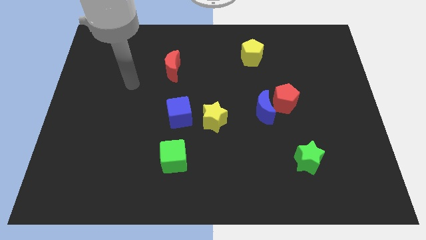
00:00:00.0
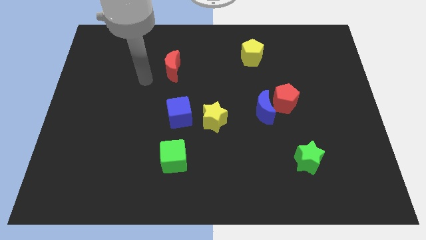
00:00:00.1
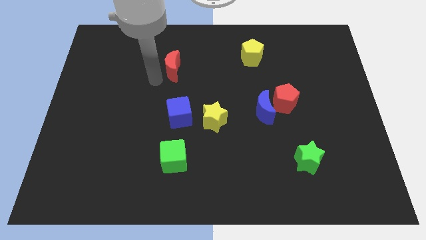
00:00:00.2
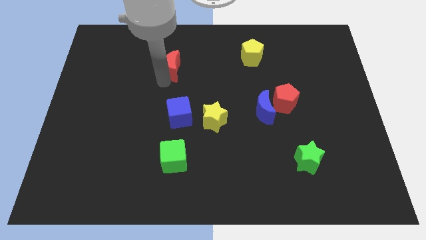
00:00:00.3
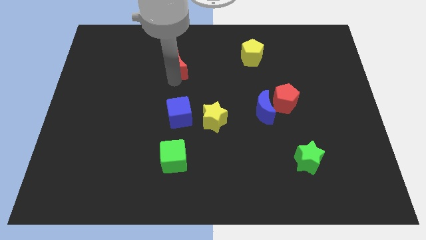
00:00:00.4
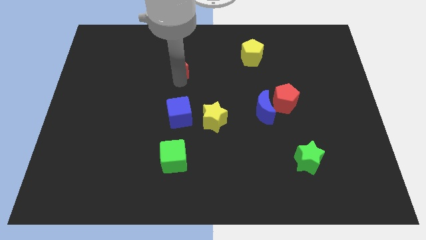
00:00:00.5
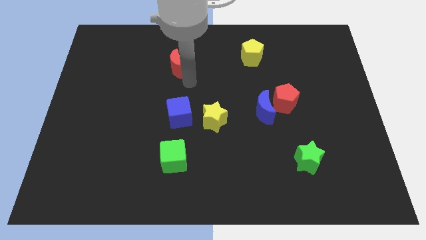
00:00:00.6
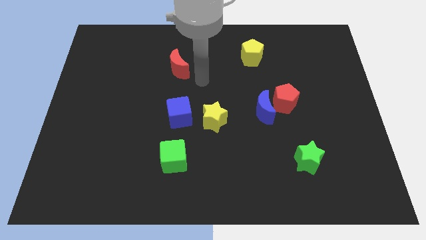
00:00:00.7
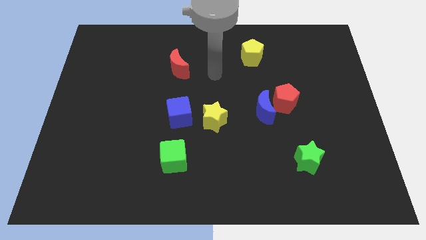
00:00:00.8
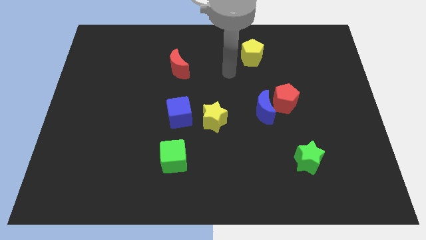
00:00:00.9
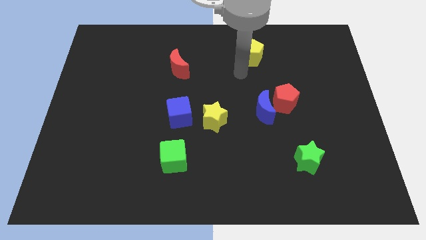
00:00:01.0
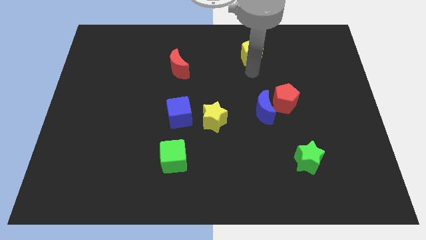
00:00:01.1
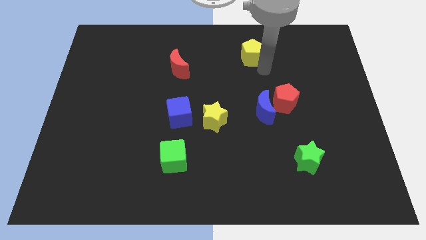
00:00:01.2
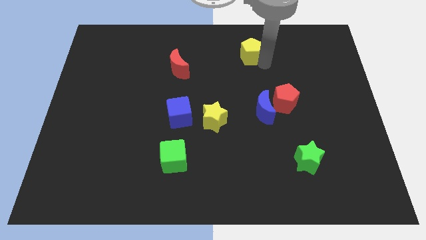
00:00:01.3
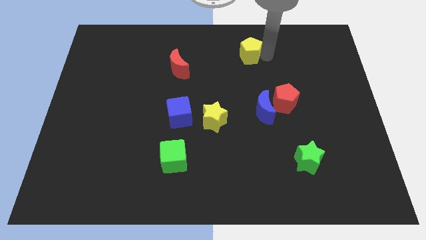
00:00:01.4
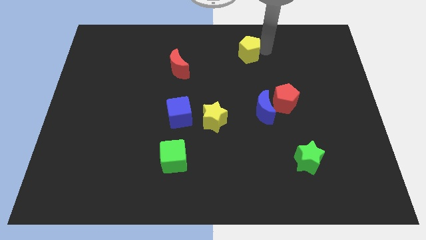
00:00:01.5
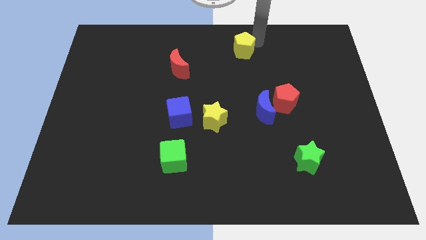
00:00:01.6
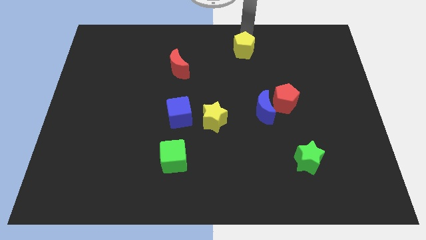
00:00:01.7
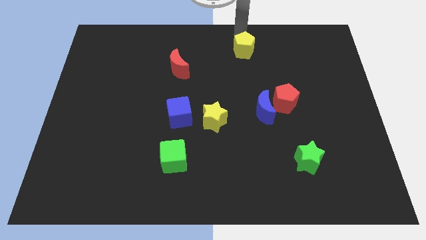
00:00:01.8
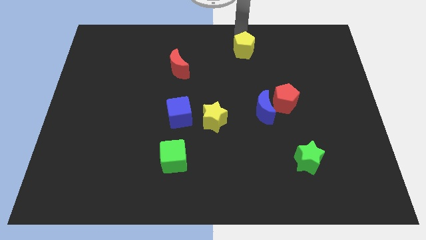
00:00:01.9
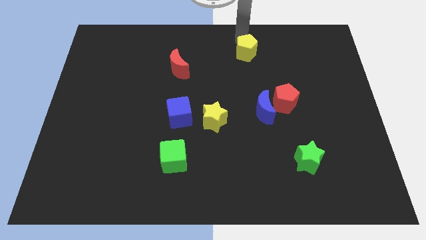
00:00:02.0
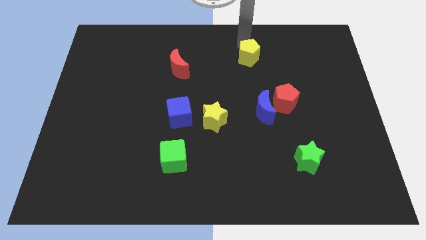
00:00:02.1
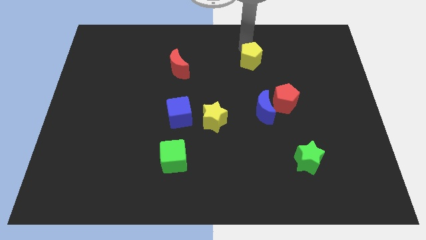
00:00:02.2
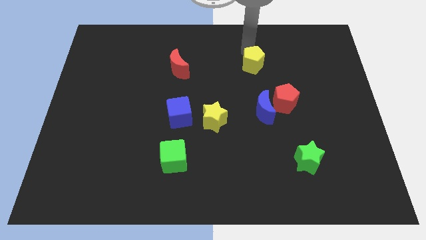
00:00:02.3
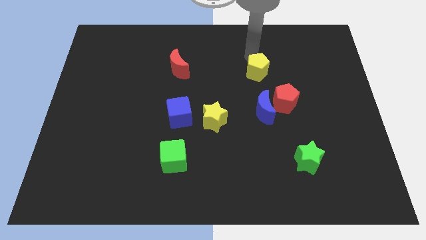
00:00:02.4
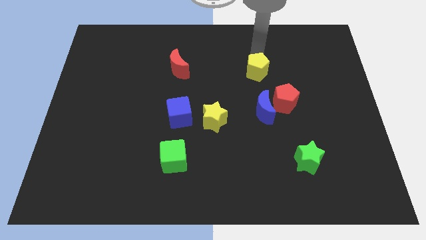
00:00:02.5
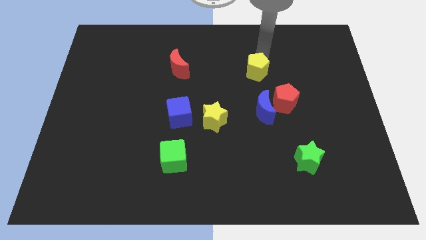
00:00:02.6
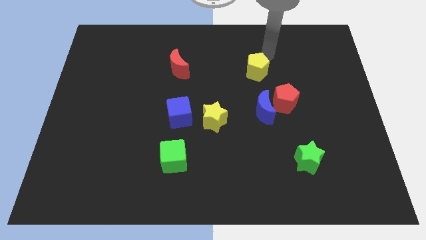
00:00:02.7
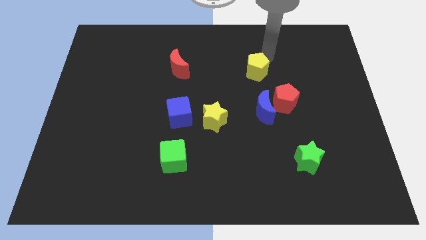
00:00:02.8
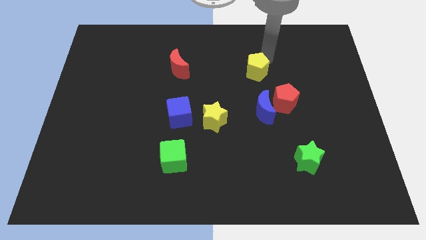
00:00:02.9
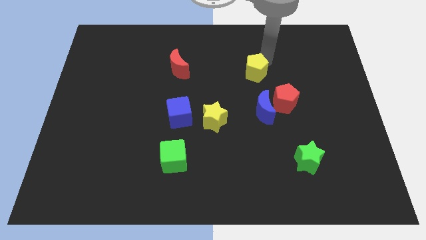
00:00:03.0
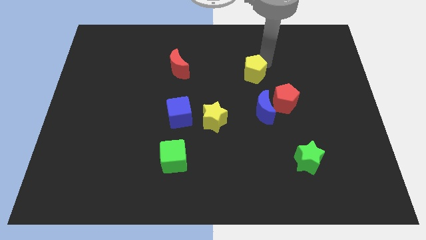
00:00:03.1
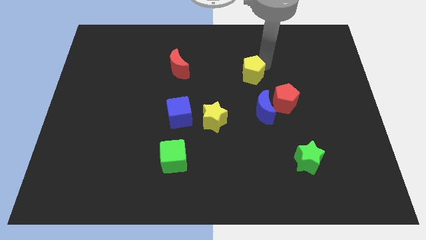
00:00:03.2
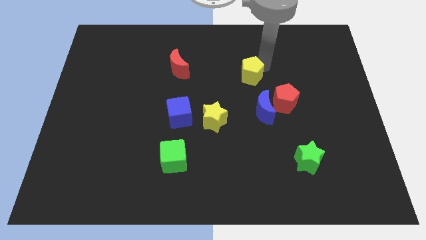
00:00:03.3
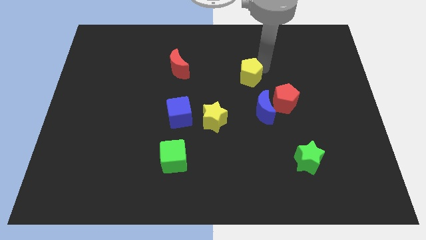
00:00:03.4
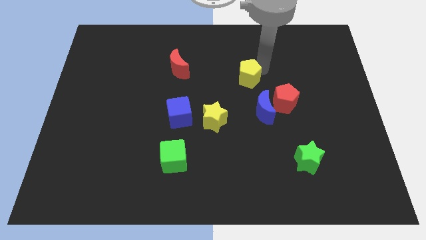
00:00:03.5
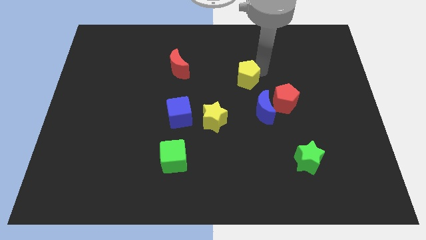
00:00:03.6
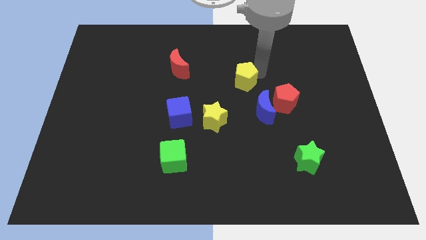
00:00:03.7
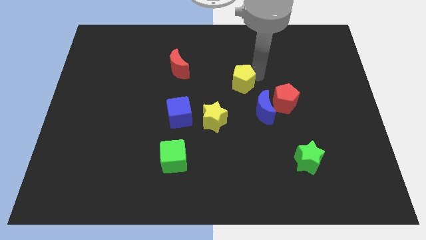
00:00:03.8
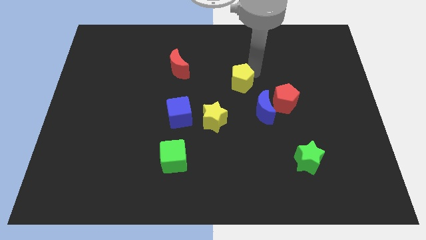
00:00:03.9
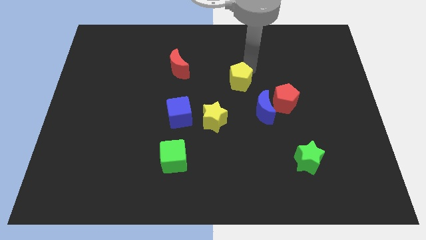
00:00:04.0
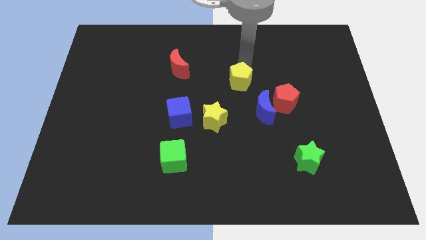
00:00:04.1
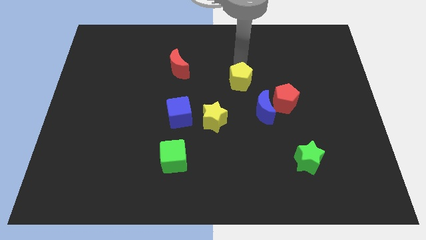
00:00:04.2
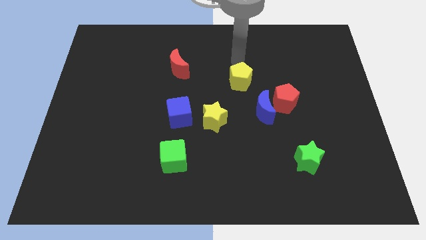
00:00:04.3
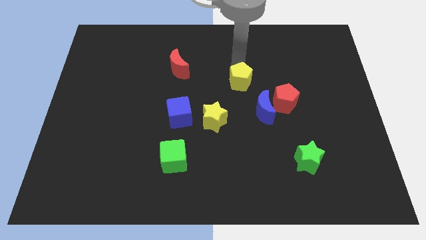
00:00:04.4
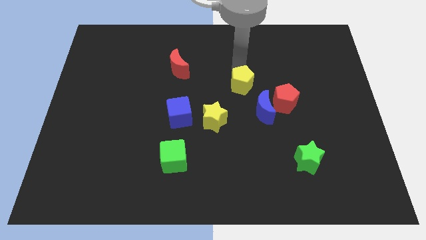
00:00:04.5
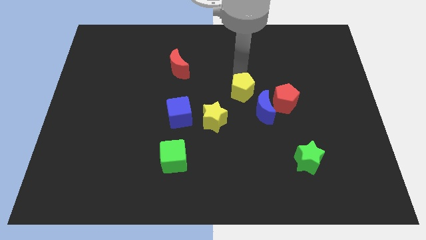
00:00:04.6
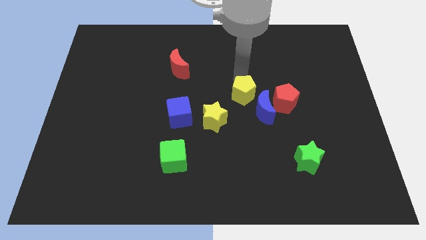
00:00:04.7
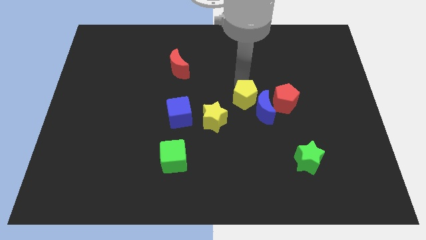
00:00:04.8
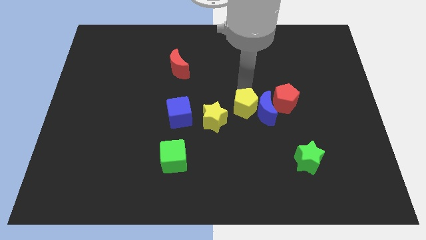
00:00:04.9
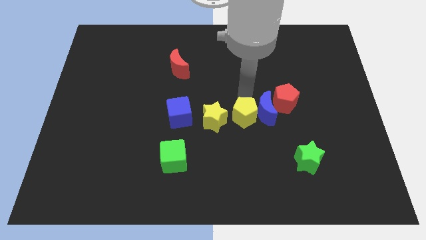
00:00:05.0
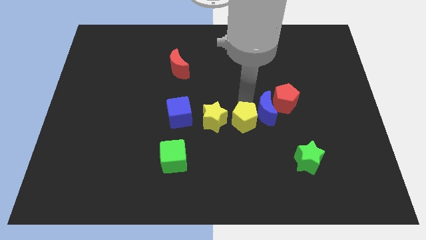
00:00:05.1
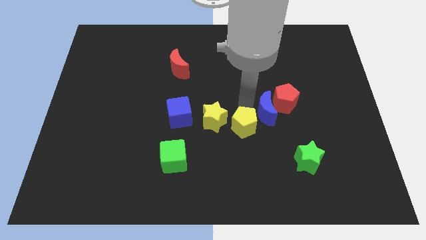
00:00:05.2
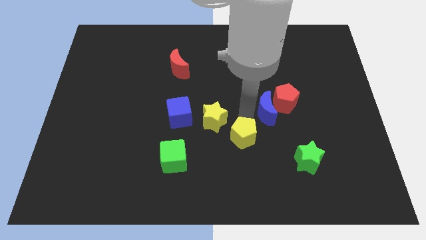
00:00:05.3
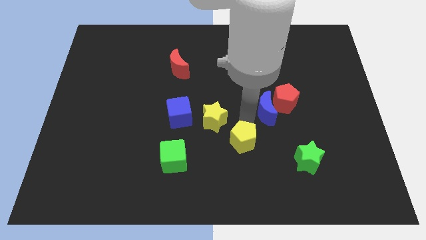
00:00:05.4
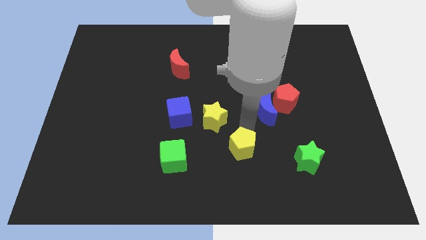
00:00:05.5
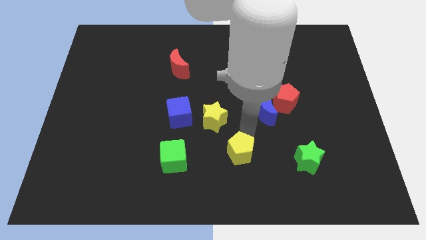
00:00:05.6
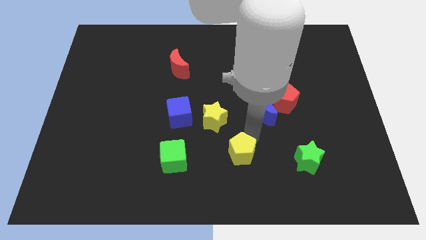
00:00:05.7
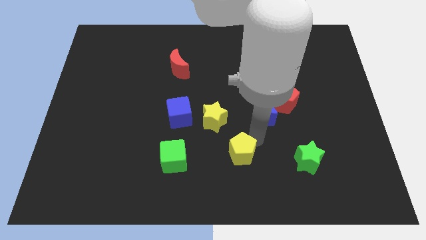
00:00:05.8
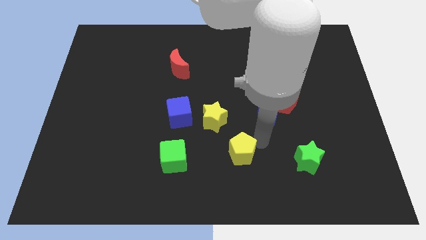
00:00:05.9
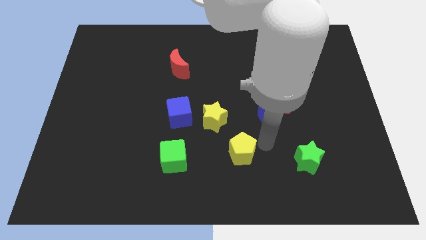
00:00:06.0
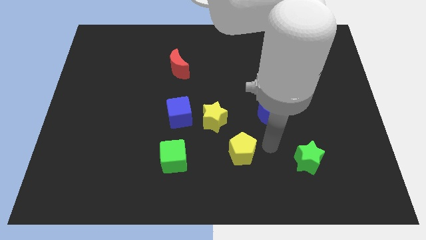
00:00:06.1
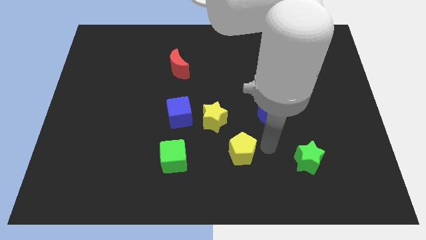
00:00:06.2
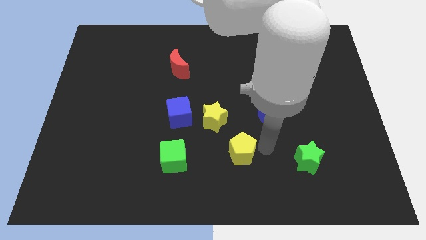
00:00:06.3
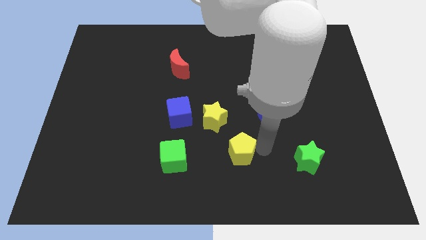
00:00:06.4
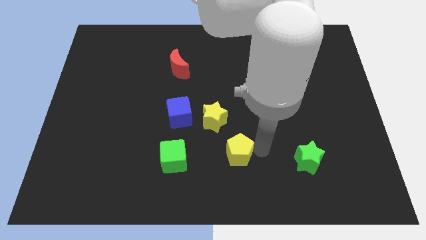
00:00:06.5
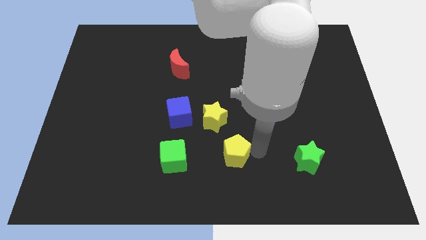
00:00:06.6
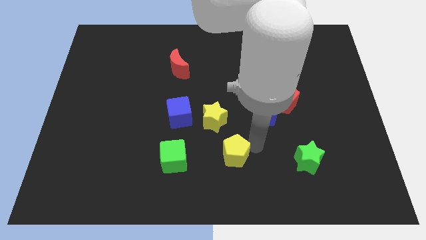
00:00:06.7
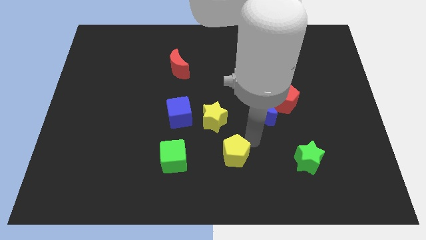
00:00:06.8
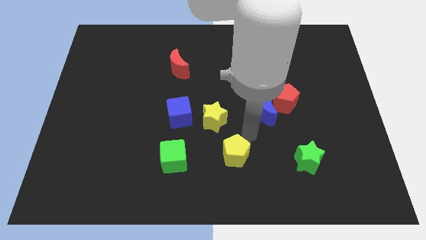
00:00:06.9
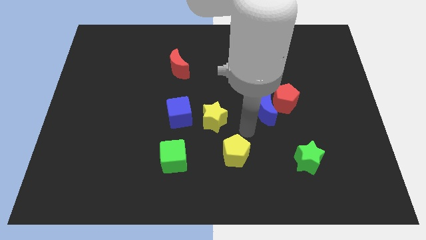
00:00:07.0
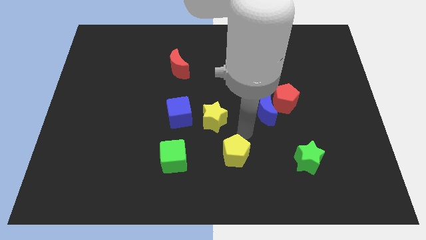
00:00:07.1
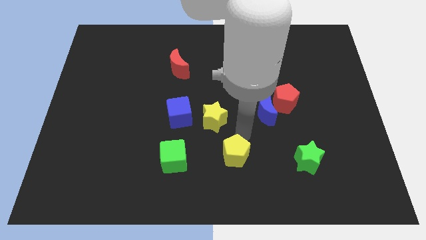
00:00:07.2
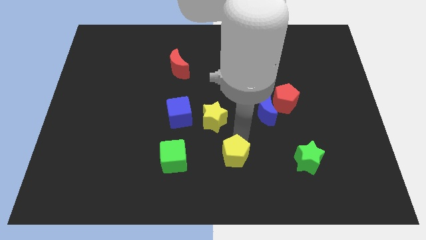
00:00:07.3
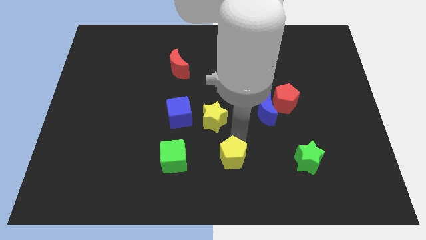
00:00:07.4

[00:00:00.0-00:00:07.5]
slide the yellow pentagon to the bottom
